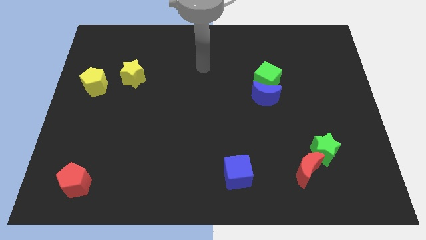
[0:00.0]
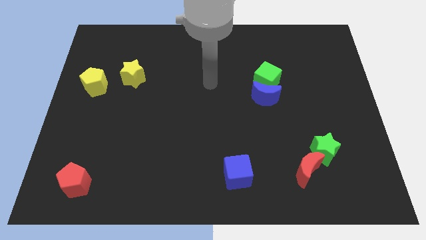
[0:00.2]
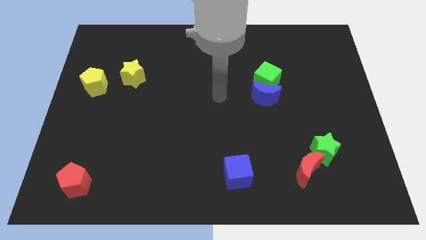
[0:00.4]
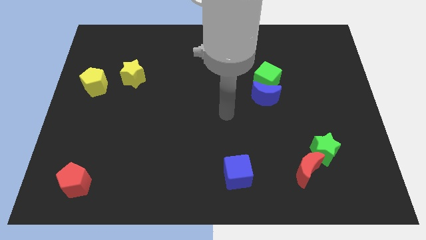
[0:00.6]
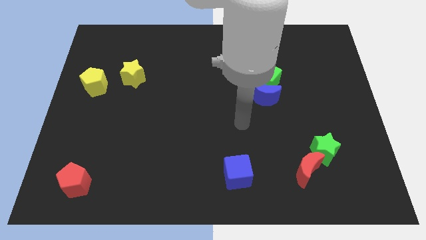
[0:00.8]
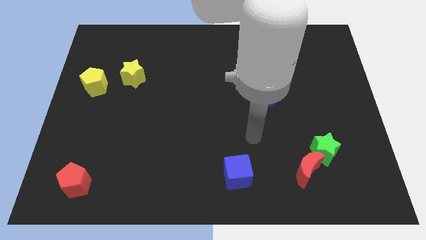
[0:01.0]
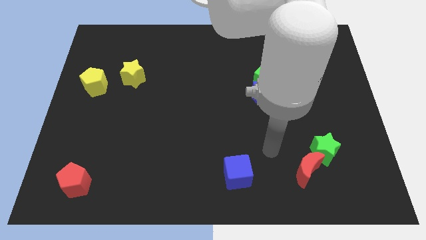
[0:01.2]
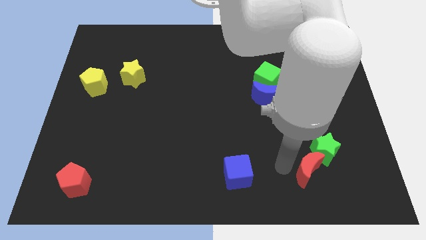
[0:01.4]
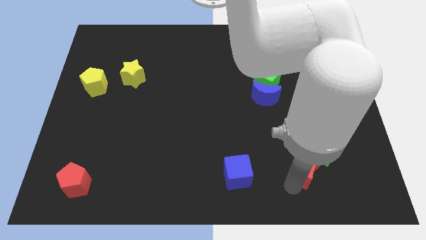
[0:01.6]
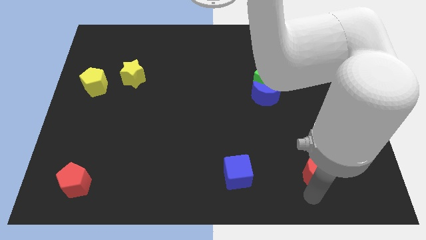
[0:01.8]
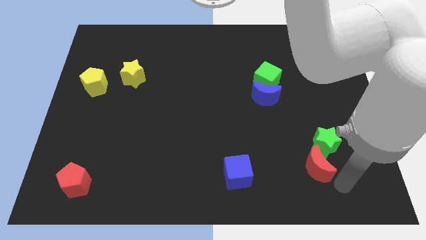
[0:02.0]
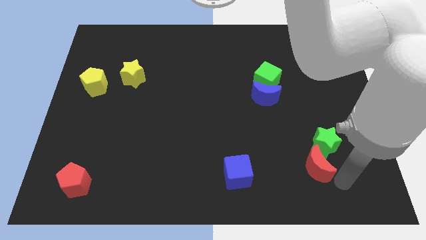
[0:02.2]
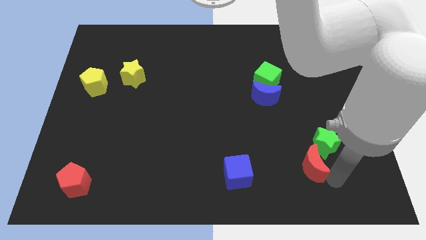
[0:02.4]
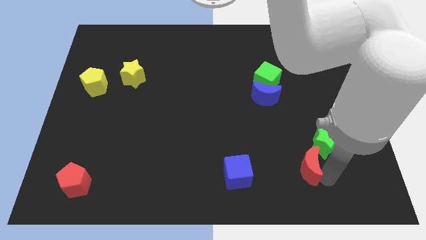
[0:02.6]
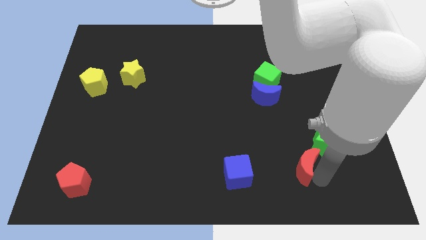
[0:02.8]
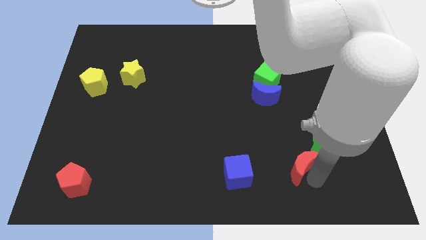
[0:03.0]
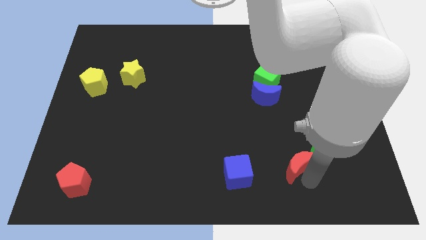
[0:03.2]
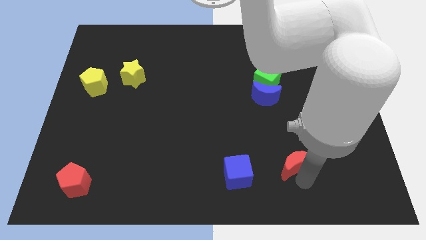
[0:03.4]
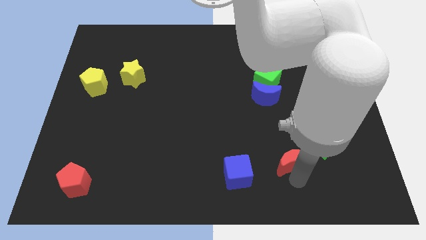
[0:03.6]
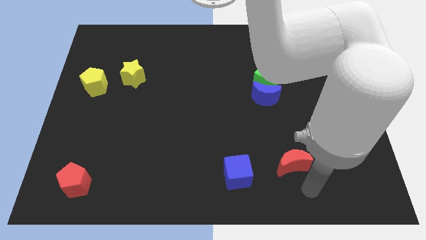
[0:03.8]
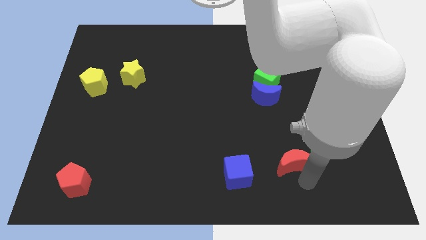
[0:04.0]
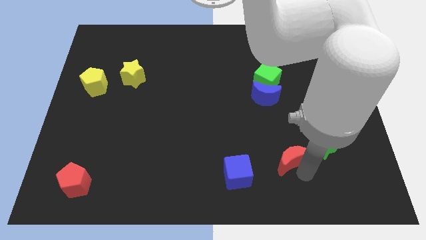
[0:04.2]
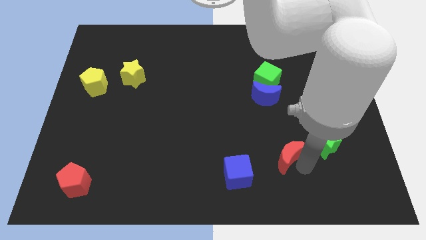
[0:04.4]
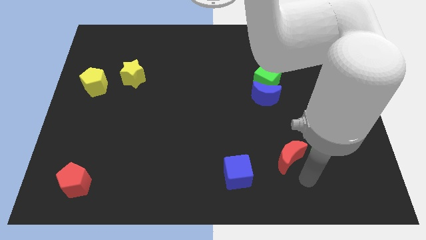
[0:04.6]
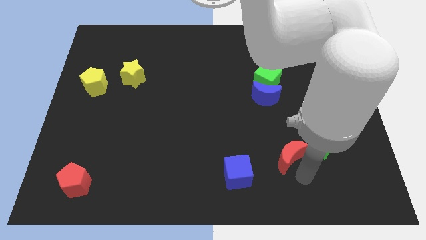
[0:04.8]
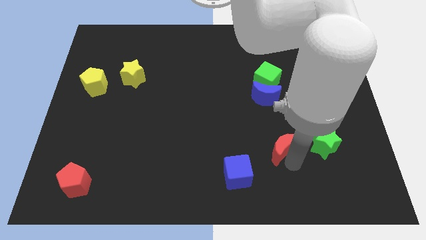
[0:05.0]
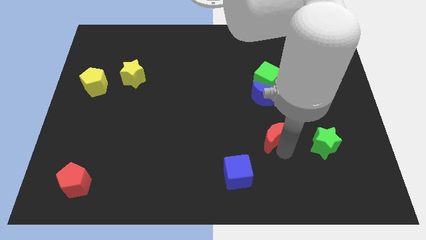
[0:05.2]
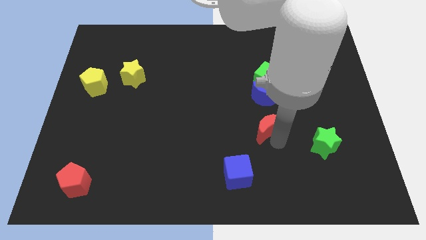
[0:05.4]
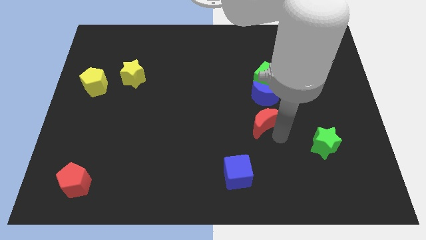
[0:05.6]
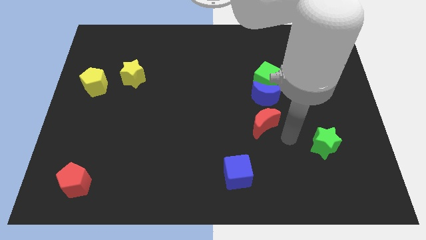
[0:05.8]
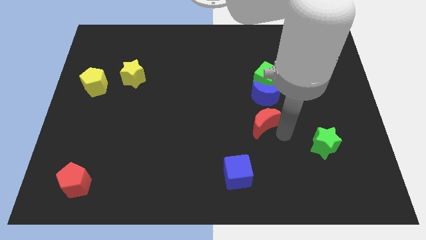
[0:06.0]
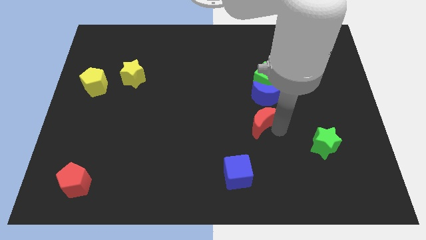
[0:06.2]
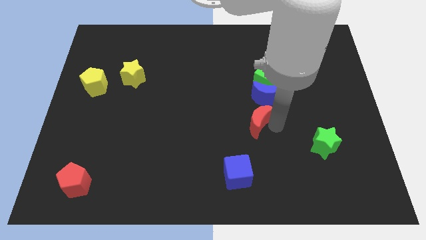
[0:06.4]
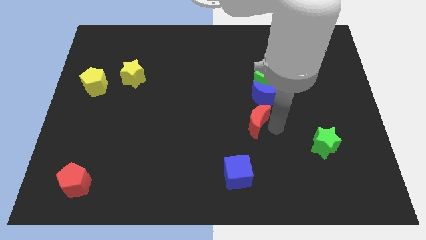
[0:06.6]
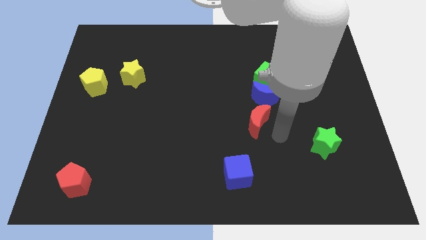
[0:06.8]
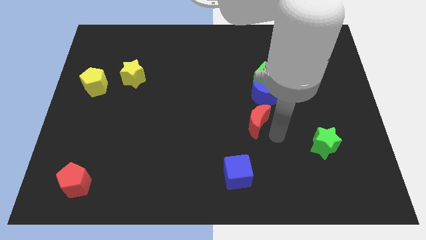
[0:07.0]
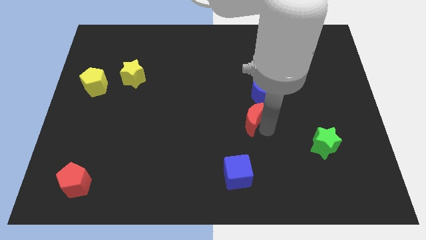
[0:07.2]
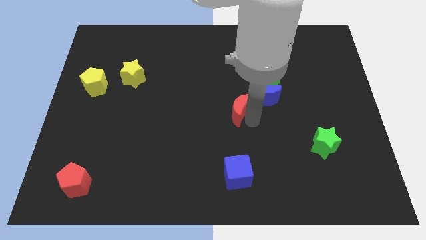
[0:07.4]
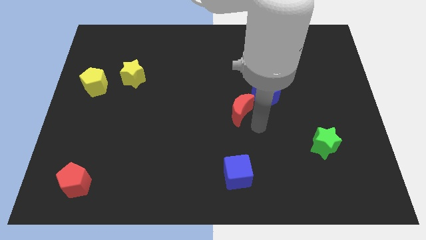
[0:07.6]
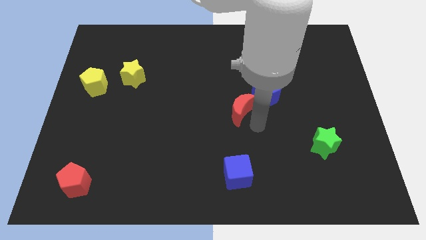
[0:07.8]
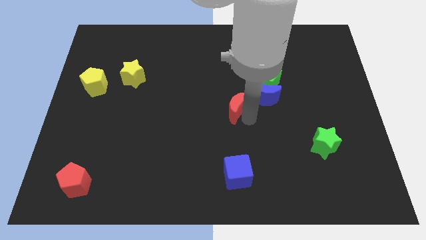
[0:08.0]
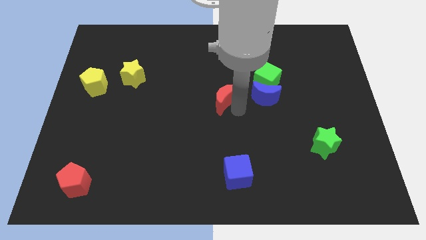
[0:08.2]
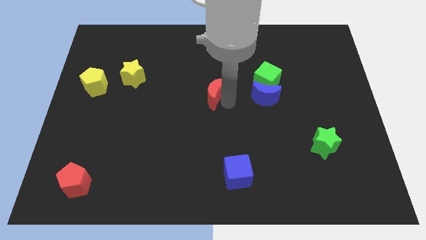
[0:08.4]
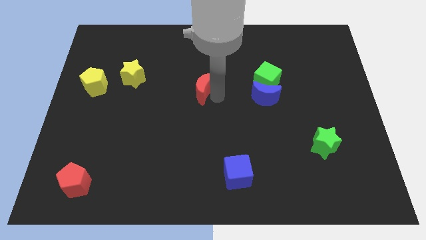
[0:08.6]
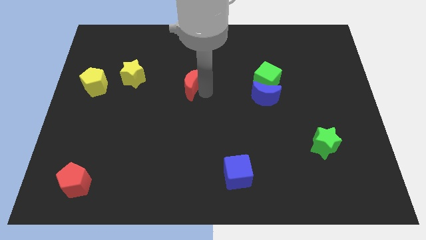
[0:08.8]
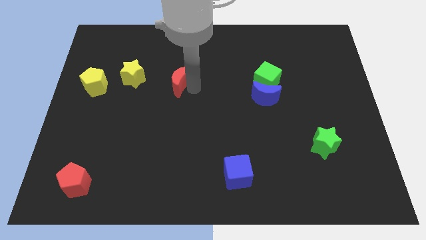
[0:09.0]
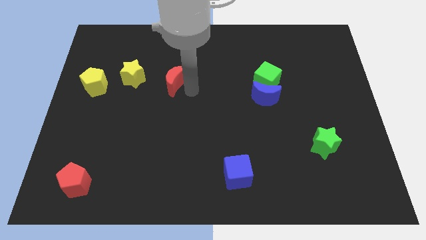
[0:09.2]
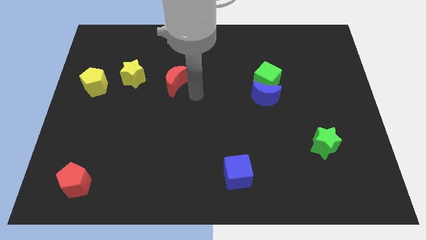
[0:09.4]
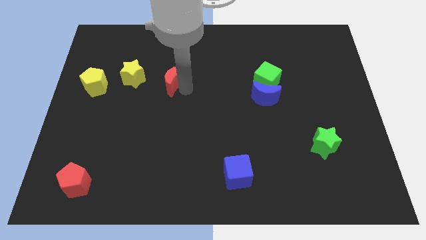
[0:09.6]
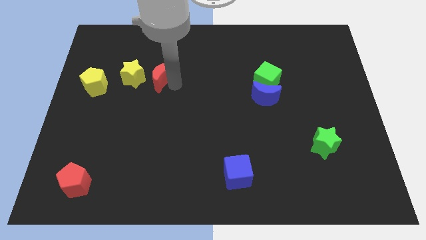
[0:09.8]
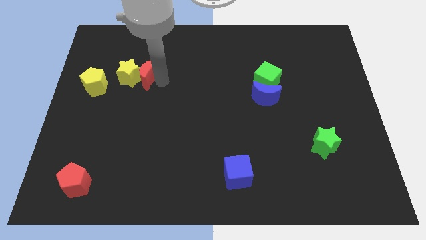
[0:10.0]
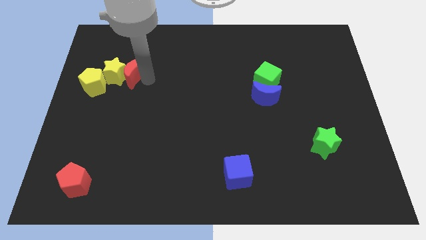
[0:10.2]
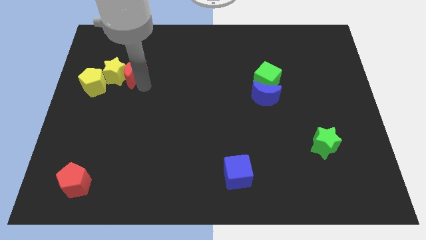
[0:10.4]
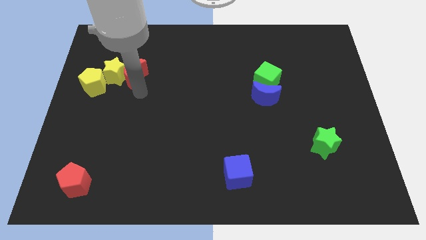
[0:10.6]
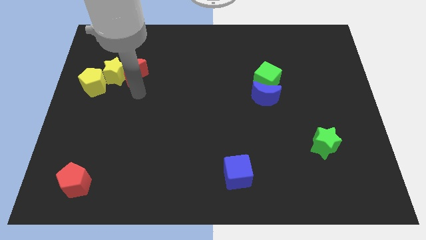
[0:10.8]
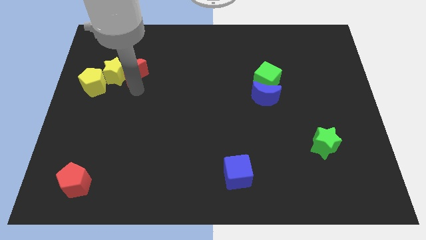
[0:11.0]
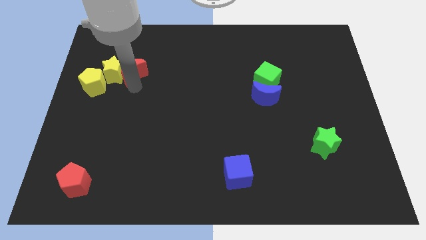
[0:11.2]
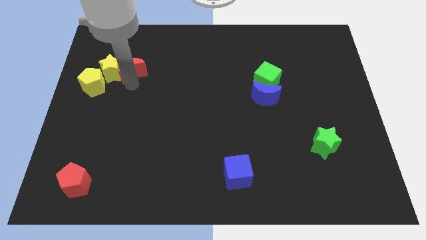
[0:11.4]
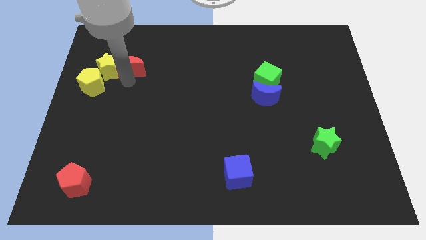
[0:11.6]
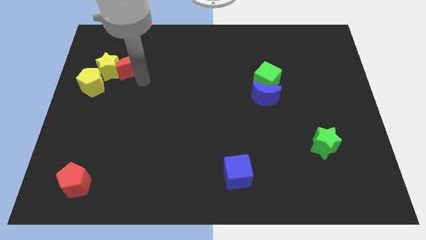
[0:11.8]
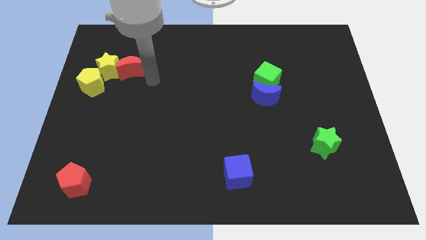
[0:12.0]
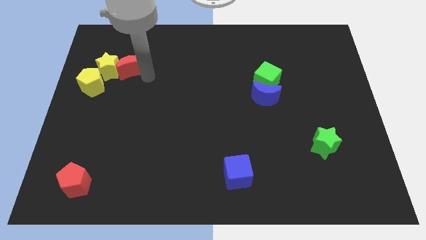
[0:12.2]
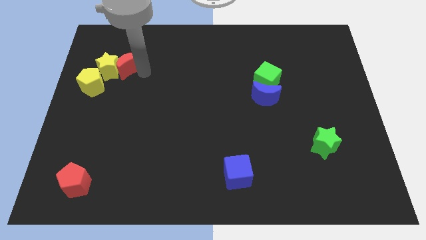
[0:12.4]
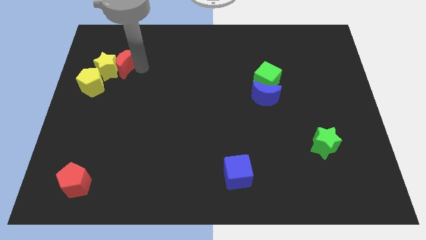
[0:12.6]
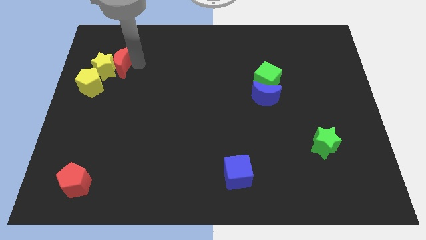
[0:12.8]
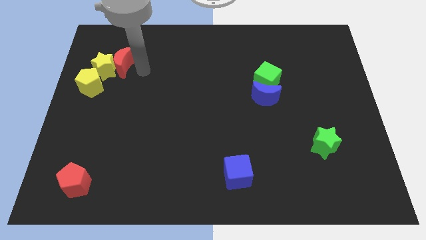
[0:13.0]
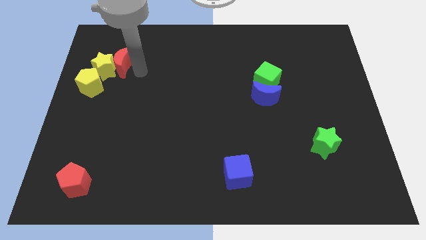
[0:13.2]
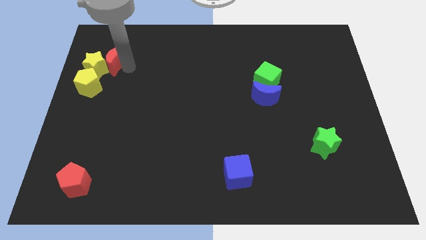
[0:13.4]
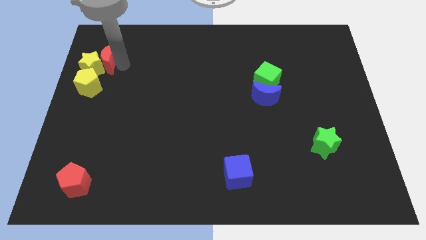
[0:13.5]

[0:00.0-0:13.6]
push the red moon above the yellow pentagon
